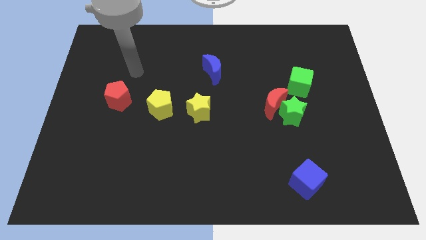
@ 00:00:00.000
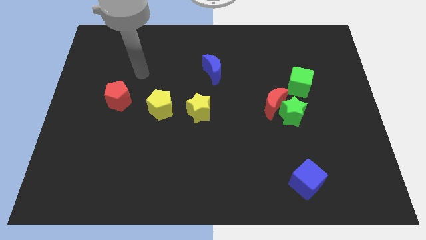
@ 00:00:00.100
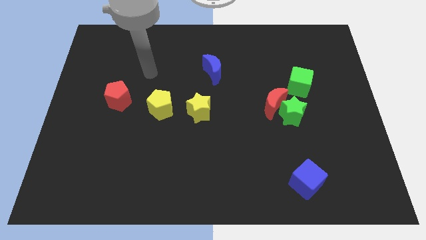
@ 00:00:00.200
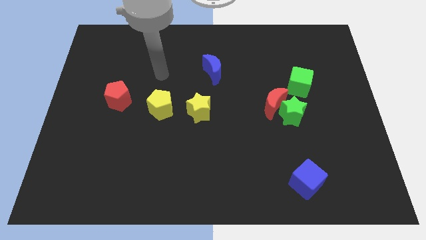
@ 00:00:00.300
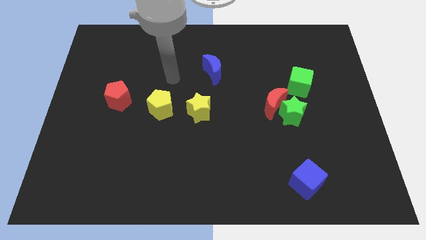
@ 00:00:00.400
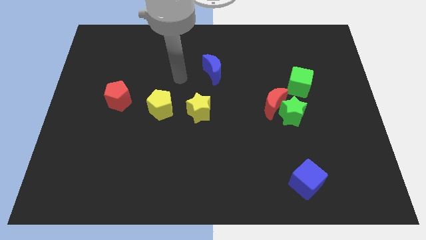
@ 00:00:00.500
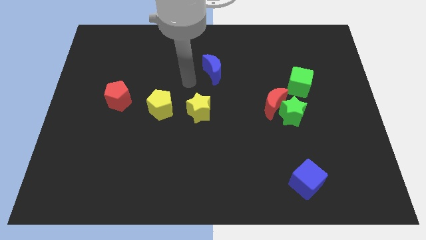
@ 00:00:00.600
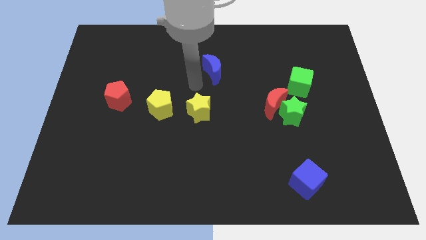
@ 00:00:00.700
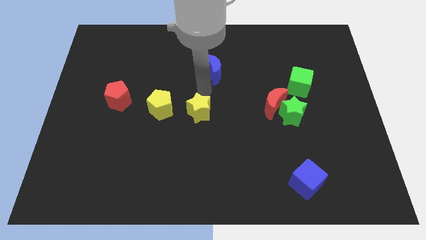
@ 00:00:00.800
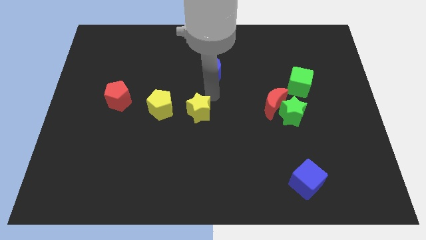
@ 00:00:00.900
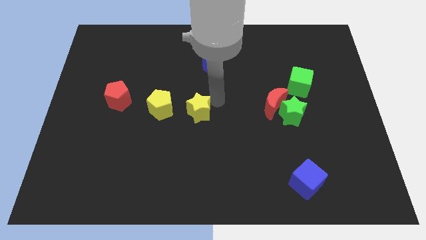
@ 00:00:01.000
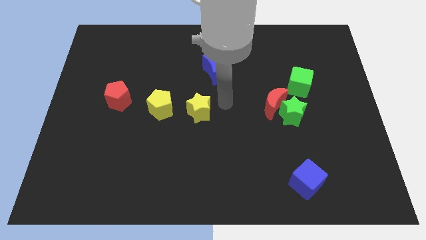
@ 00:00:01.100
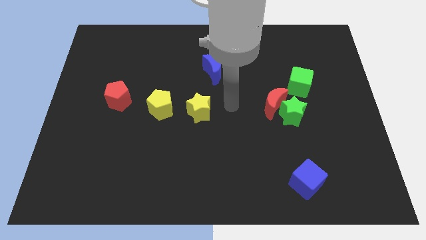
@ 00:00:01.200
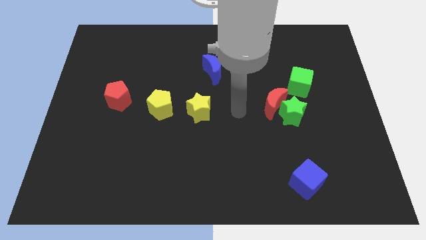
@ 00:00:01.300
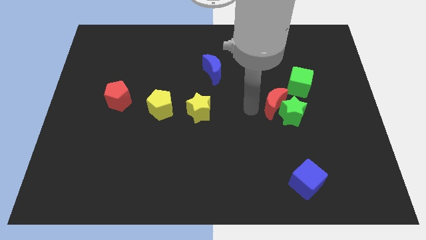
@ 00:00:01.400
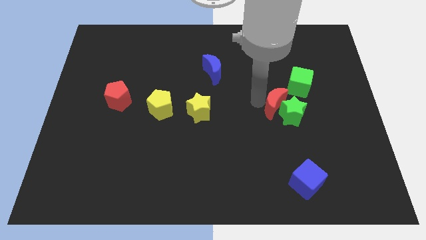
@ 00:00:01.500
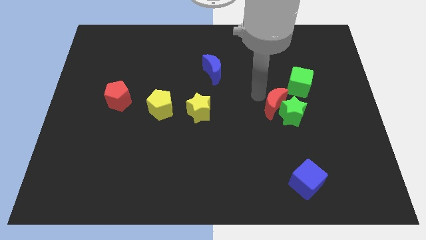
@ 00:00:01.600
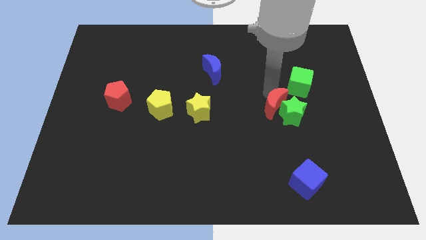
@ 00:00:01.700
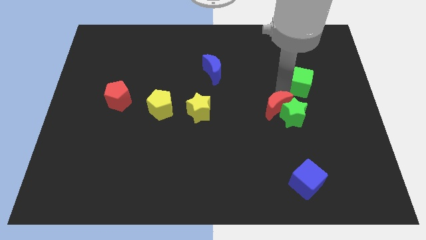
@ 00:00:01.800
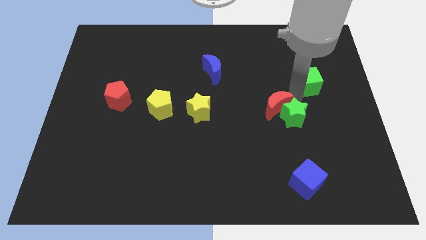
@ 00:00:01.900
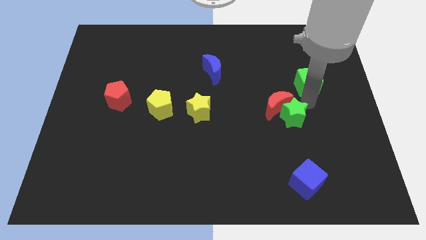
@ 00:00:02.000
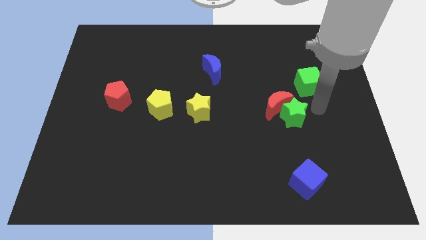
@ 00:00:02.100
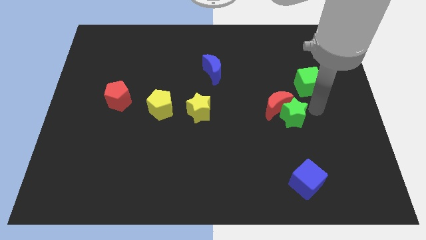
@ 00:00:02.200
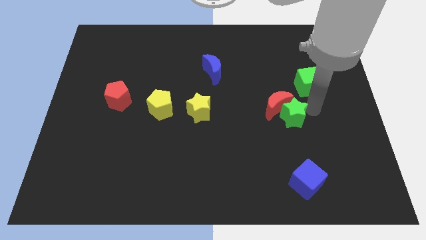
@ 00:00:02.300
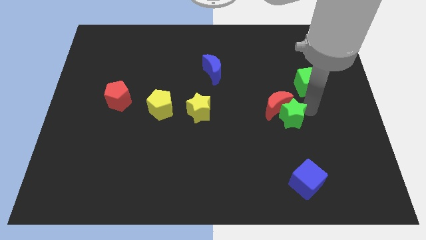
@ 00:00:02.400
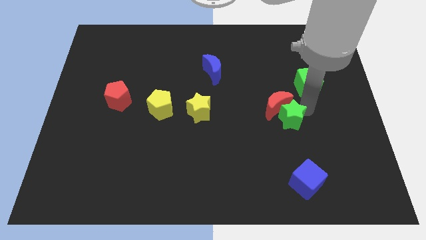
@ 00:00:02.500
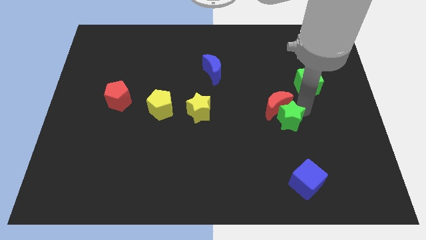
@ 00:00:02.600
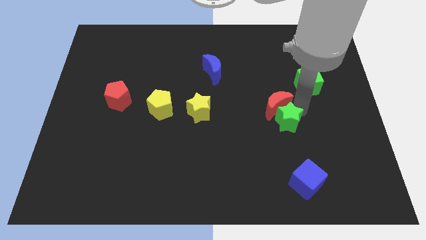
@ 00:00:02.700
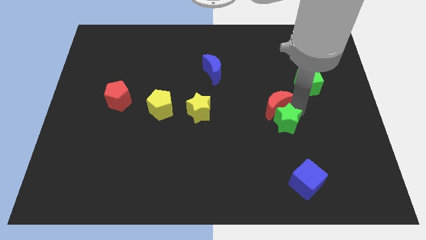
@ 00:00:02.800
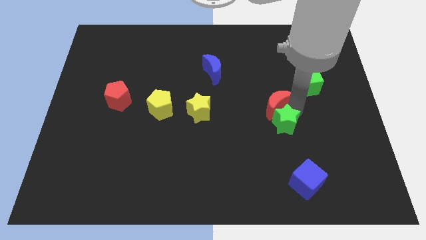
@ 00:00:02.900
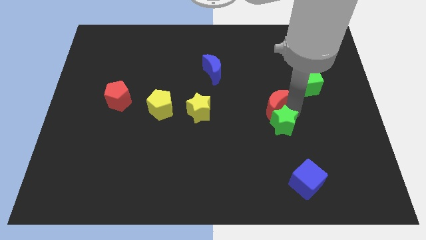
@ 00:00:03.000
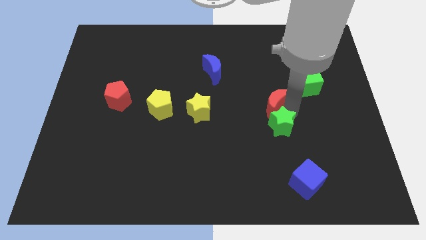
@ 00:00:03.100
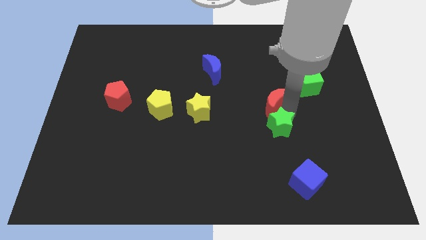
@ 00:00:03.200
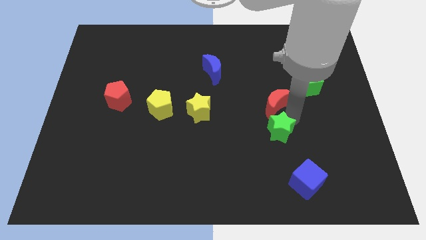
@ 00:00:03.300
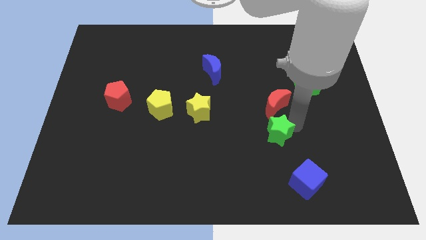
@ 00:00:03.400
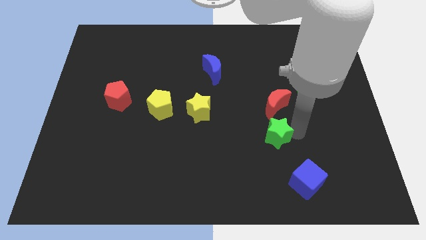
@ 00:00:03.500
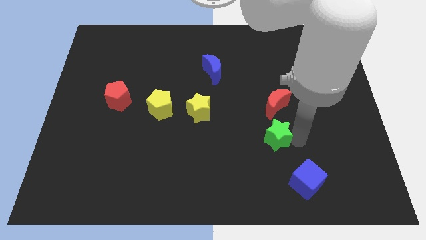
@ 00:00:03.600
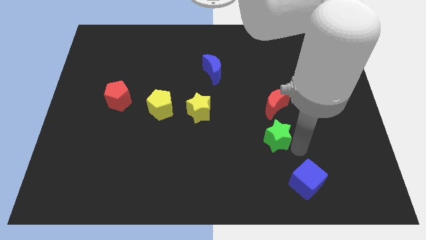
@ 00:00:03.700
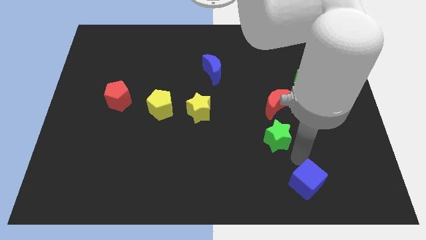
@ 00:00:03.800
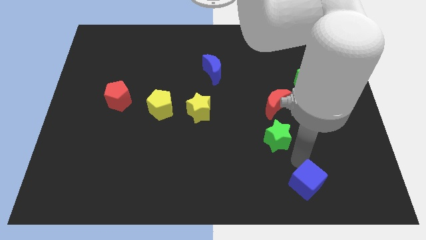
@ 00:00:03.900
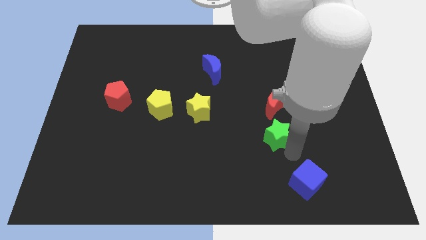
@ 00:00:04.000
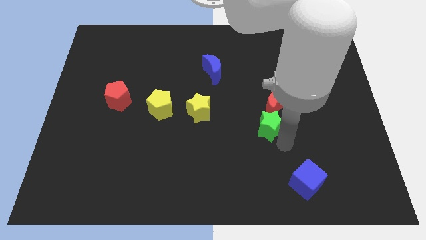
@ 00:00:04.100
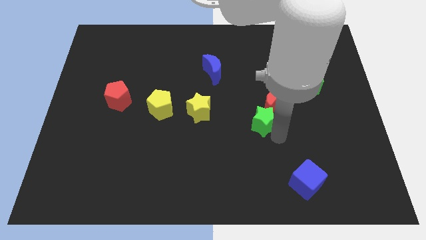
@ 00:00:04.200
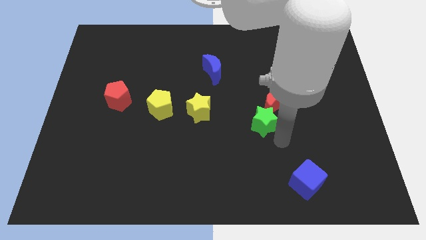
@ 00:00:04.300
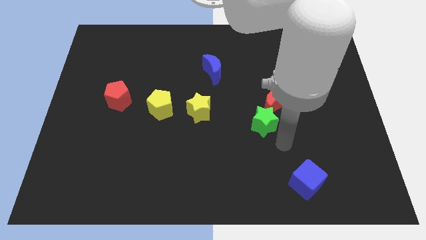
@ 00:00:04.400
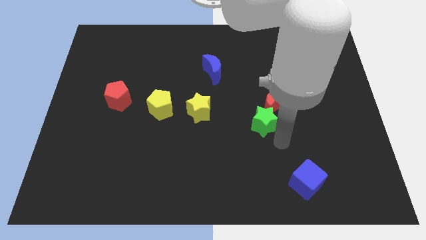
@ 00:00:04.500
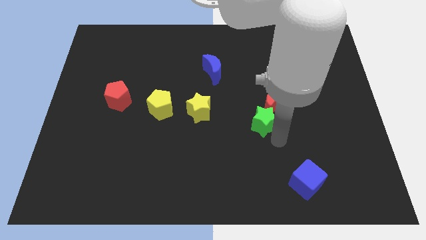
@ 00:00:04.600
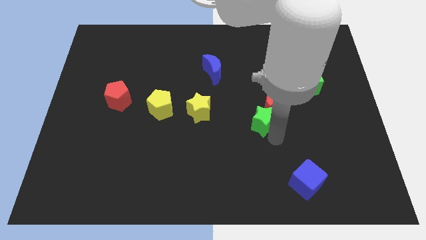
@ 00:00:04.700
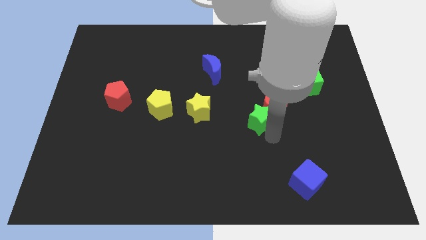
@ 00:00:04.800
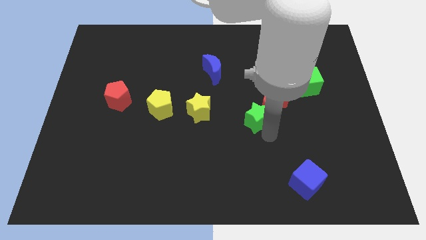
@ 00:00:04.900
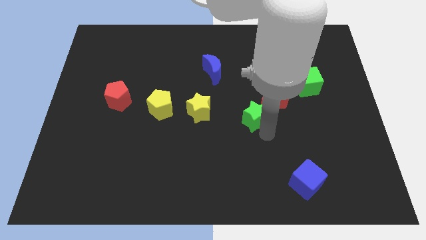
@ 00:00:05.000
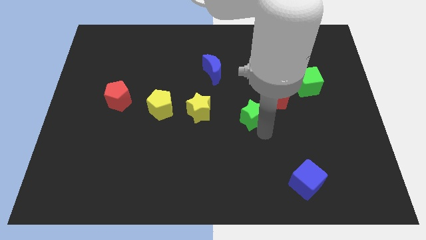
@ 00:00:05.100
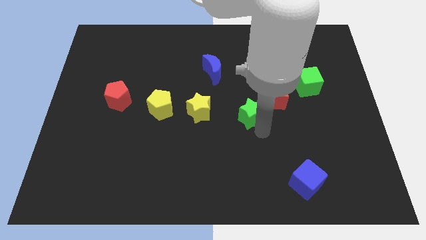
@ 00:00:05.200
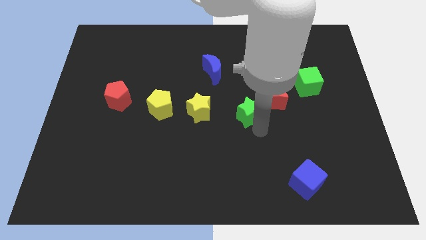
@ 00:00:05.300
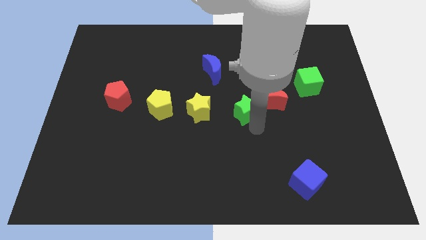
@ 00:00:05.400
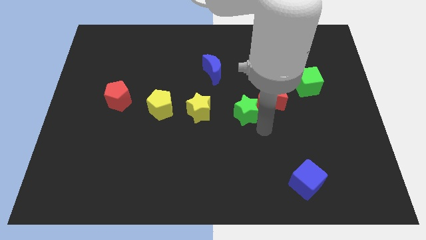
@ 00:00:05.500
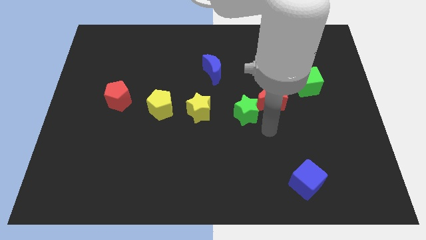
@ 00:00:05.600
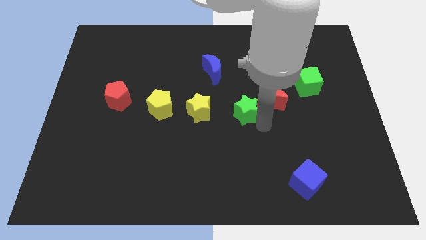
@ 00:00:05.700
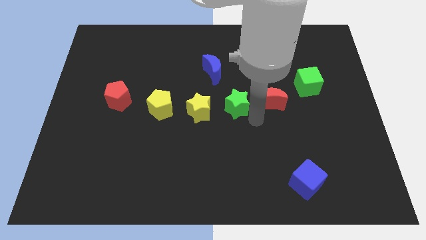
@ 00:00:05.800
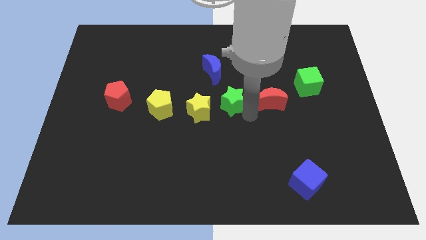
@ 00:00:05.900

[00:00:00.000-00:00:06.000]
slide the green star to the top right of the yellow star

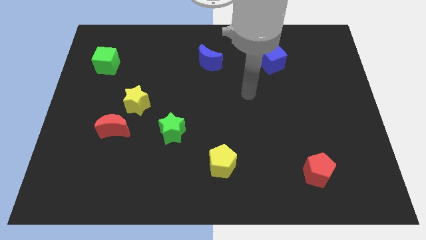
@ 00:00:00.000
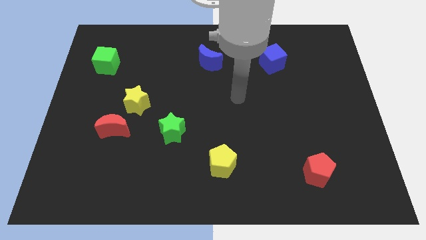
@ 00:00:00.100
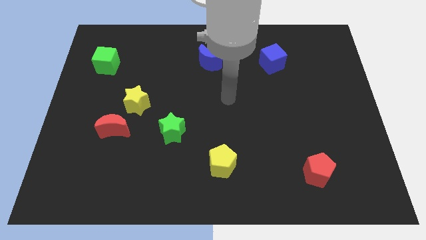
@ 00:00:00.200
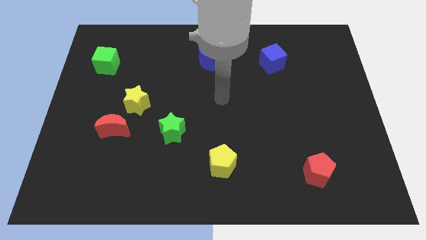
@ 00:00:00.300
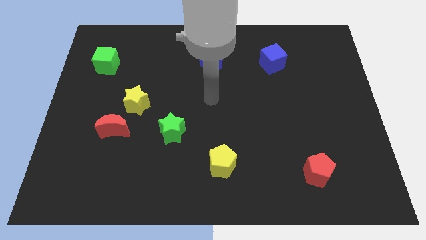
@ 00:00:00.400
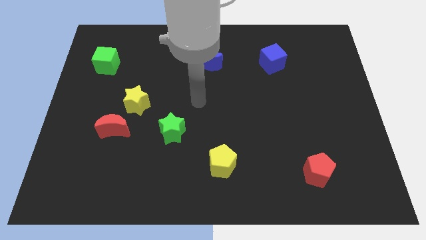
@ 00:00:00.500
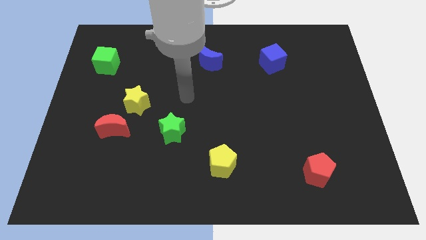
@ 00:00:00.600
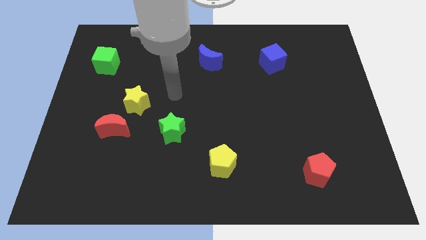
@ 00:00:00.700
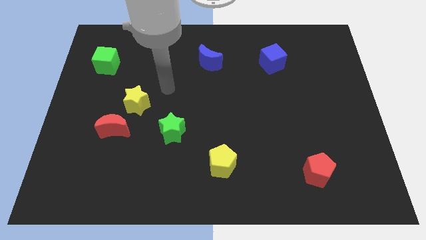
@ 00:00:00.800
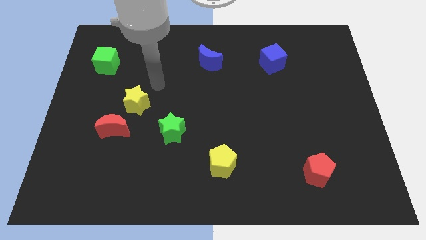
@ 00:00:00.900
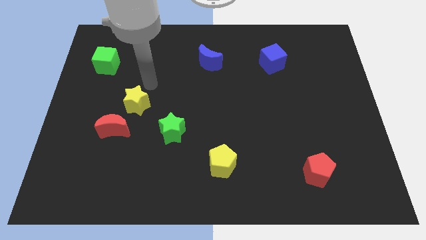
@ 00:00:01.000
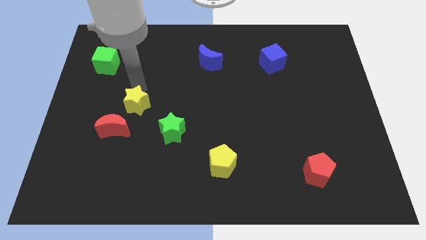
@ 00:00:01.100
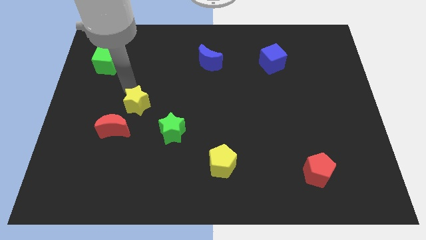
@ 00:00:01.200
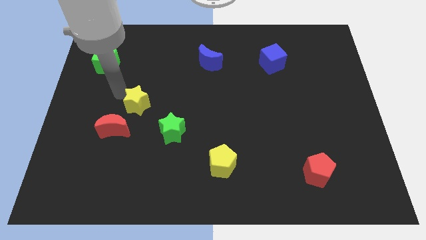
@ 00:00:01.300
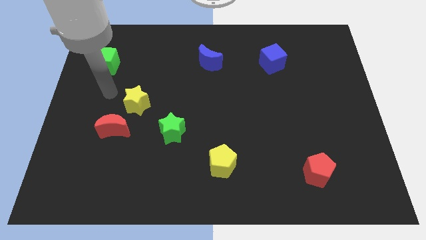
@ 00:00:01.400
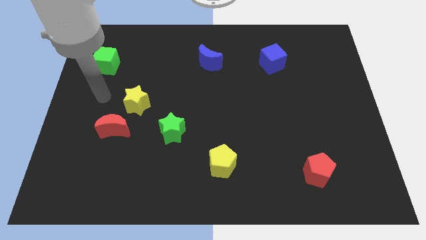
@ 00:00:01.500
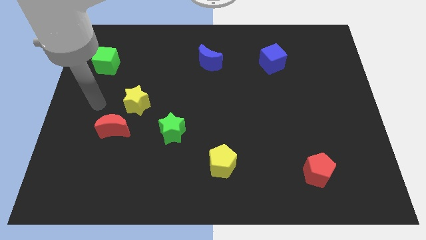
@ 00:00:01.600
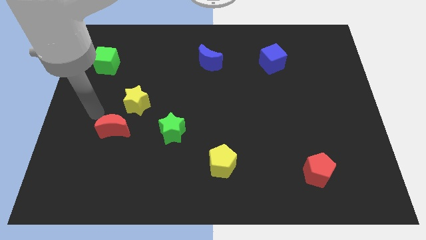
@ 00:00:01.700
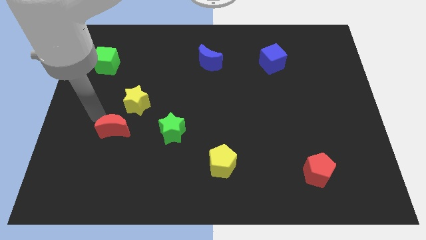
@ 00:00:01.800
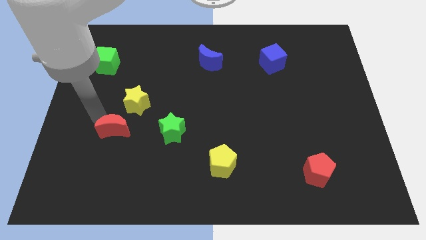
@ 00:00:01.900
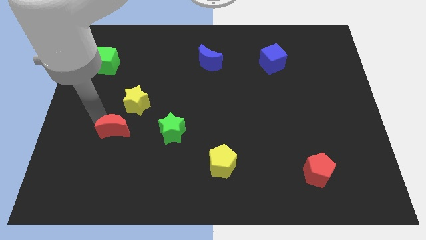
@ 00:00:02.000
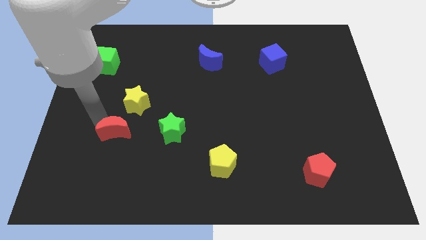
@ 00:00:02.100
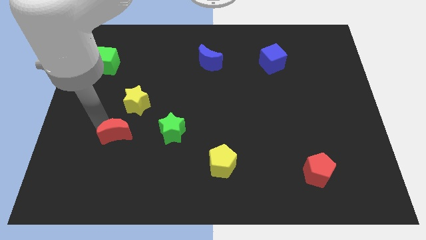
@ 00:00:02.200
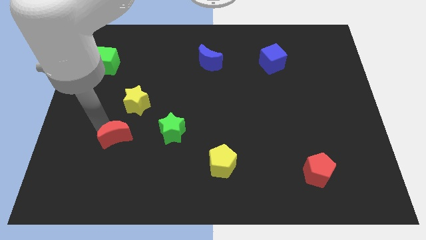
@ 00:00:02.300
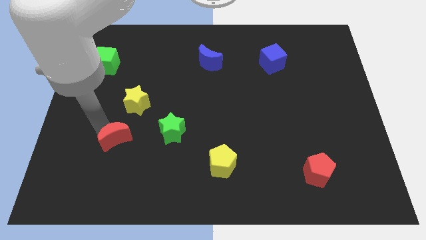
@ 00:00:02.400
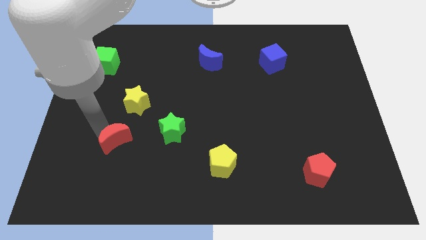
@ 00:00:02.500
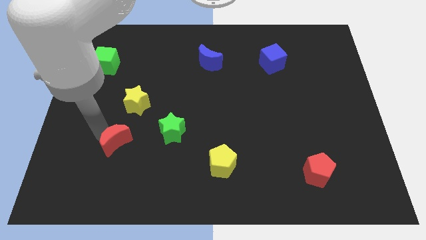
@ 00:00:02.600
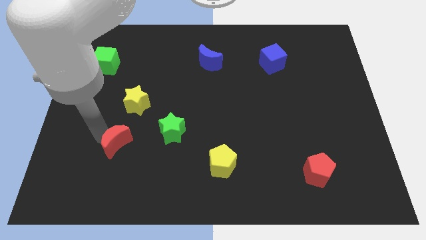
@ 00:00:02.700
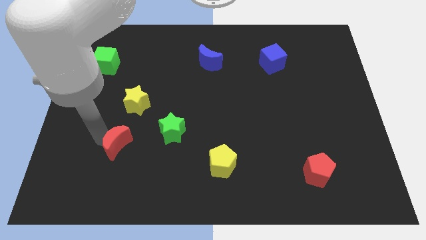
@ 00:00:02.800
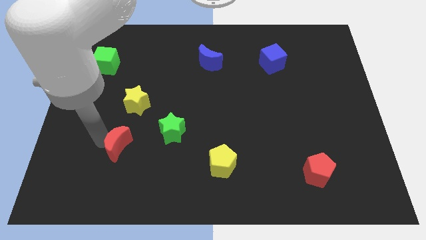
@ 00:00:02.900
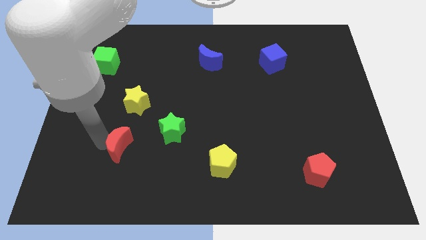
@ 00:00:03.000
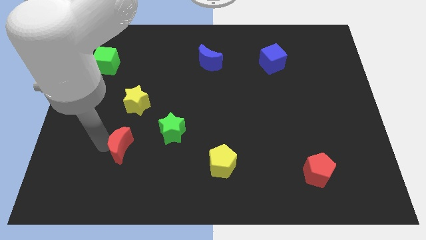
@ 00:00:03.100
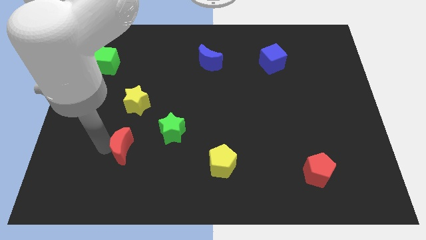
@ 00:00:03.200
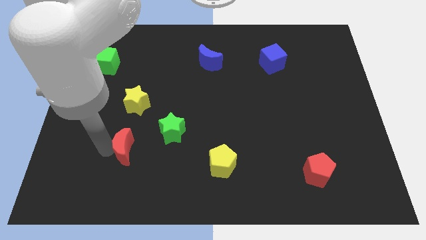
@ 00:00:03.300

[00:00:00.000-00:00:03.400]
move the red moon to the bottom left side of the green star
